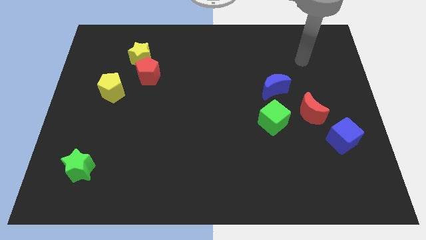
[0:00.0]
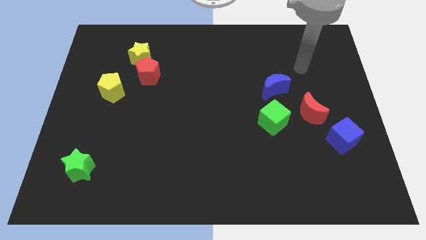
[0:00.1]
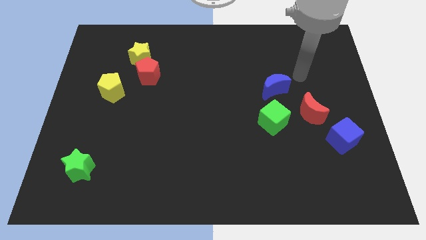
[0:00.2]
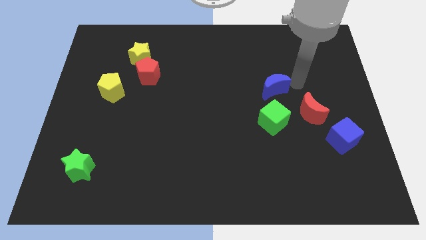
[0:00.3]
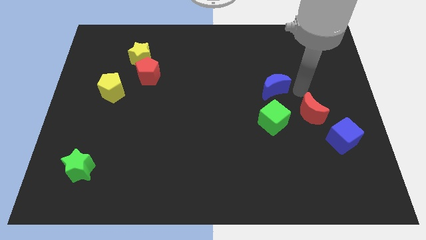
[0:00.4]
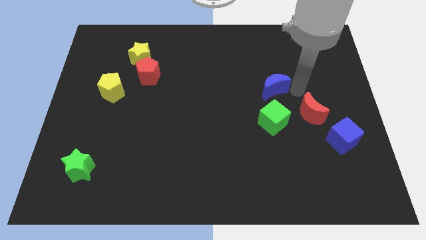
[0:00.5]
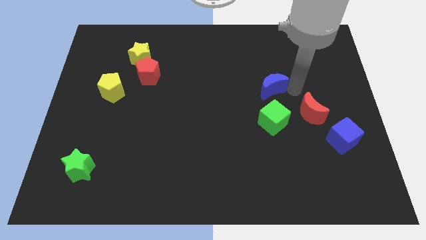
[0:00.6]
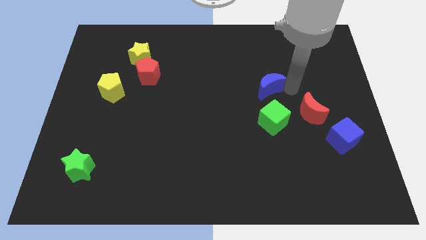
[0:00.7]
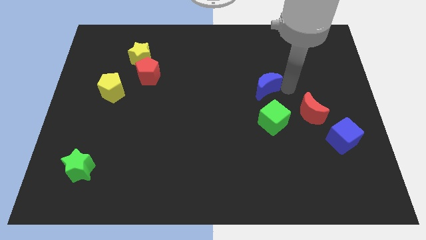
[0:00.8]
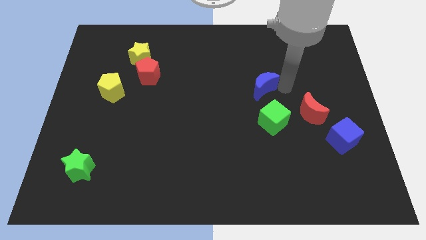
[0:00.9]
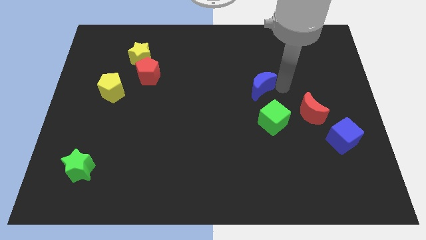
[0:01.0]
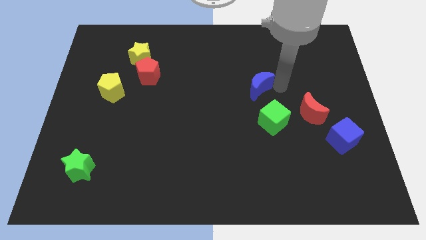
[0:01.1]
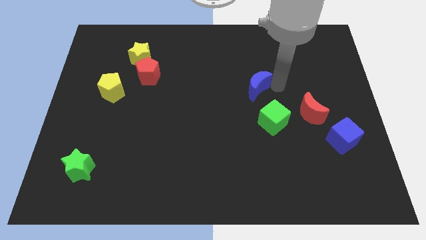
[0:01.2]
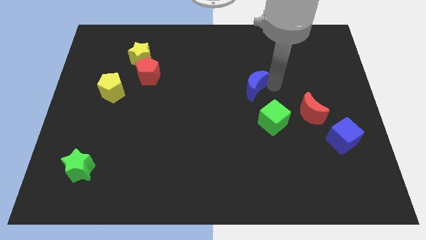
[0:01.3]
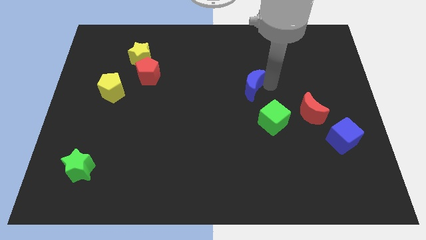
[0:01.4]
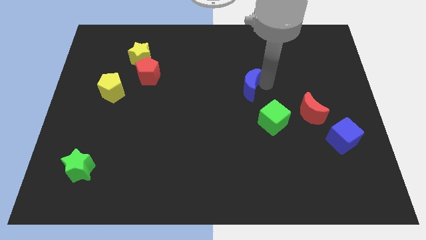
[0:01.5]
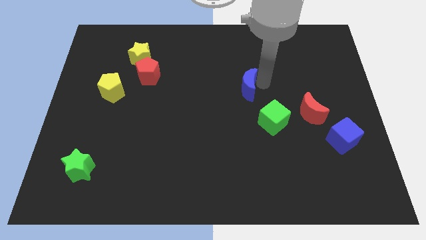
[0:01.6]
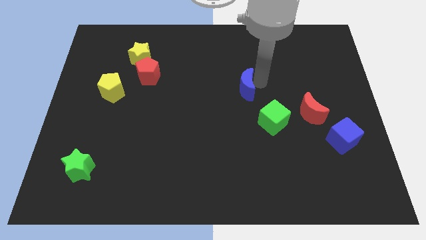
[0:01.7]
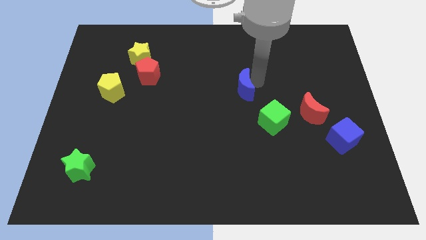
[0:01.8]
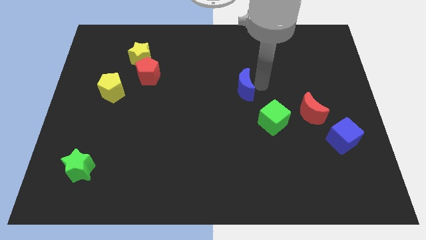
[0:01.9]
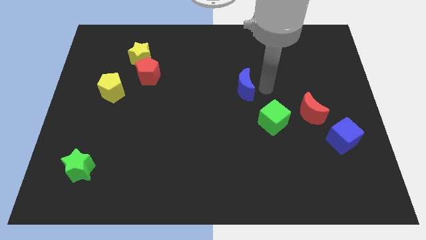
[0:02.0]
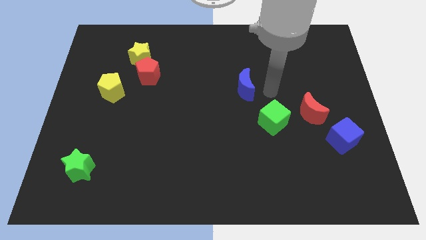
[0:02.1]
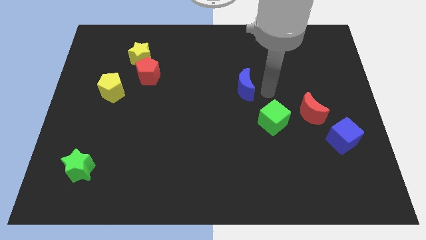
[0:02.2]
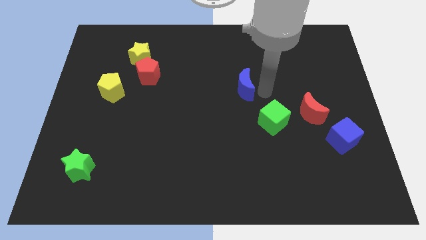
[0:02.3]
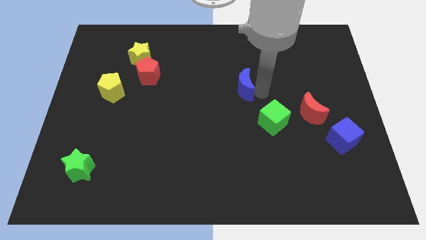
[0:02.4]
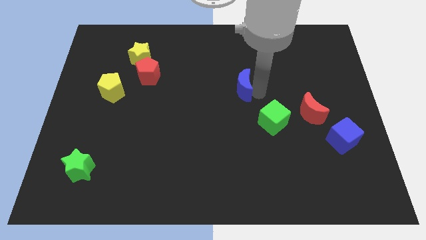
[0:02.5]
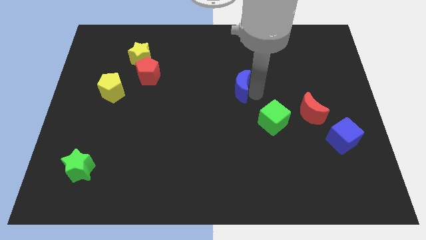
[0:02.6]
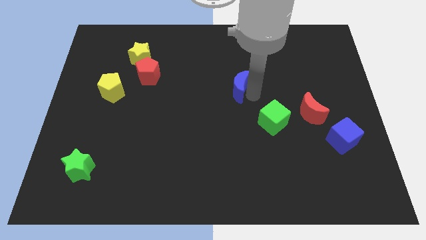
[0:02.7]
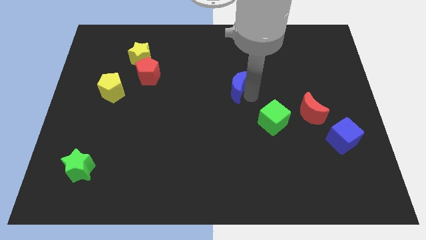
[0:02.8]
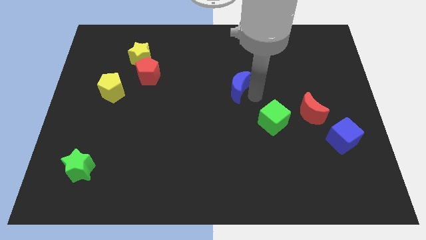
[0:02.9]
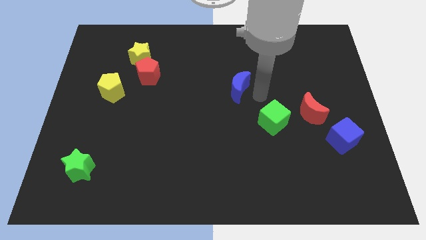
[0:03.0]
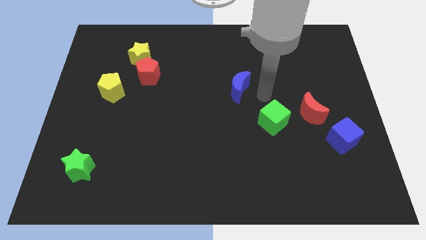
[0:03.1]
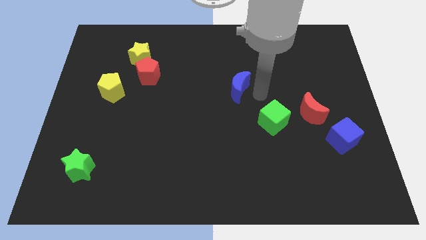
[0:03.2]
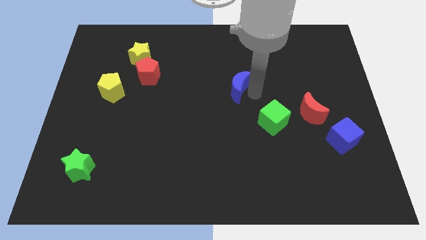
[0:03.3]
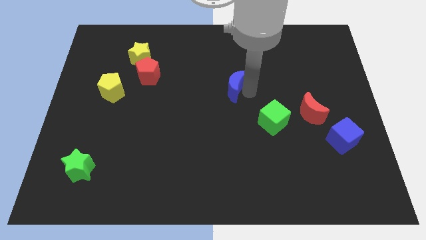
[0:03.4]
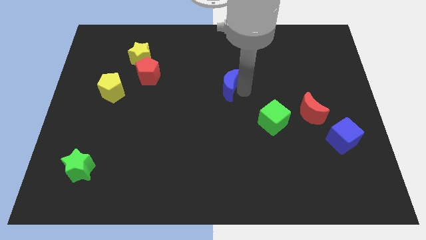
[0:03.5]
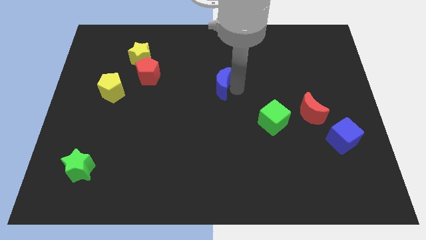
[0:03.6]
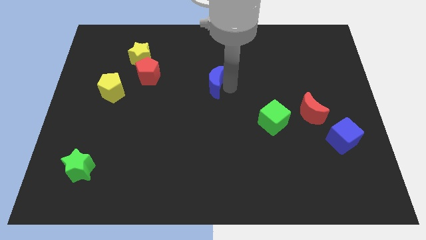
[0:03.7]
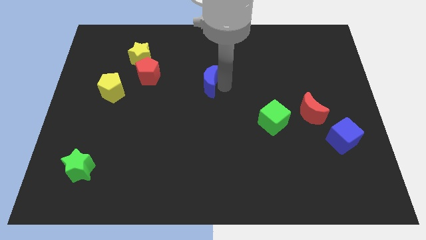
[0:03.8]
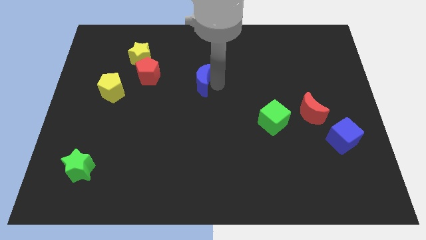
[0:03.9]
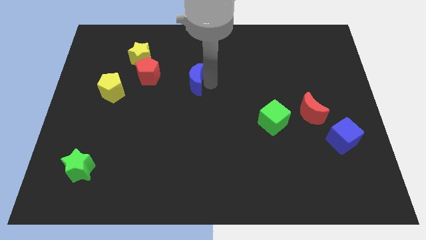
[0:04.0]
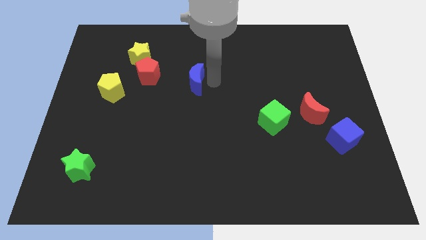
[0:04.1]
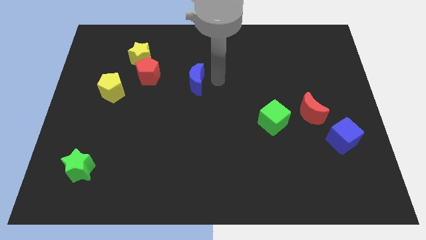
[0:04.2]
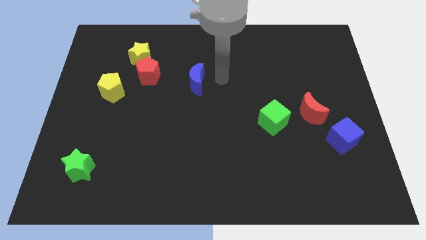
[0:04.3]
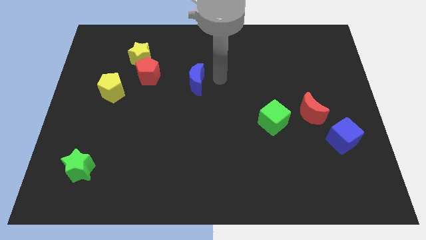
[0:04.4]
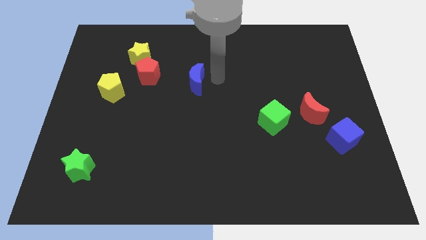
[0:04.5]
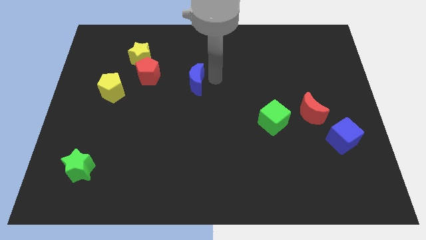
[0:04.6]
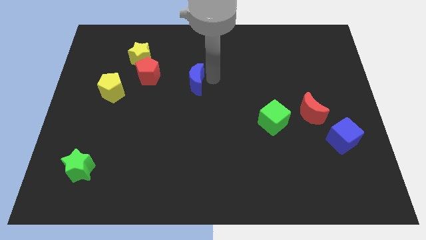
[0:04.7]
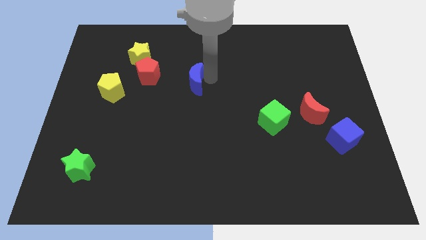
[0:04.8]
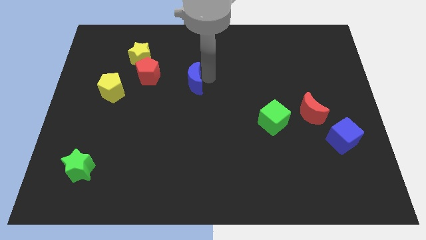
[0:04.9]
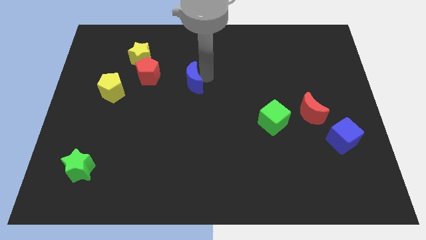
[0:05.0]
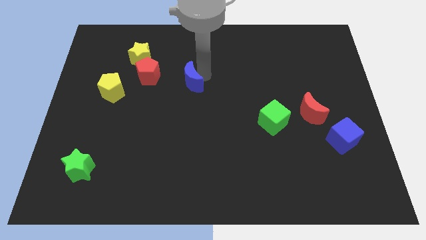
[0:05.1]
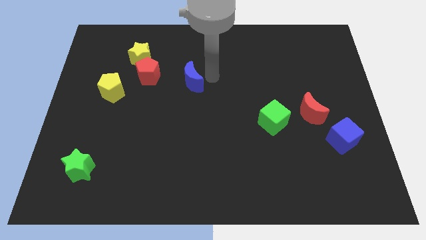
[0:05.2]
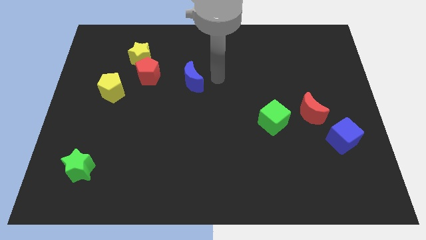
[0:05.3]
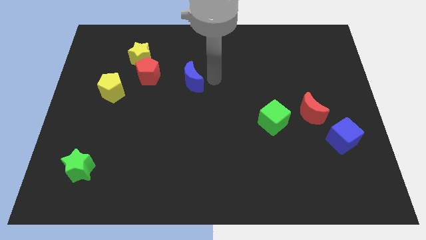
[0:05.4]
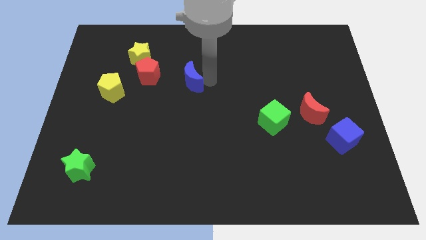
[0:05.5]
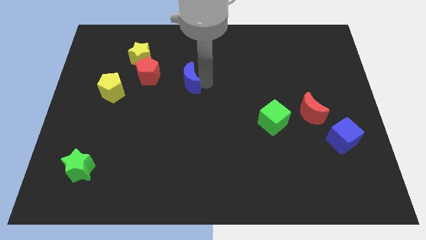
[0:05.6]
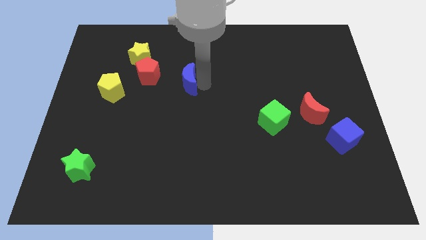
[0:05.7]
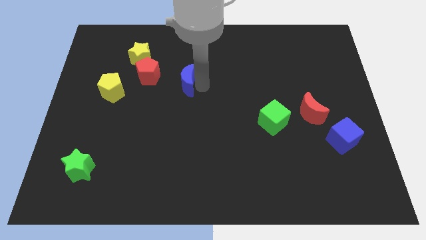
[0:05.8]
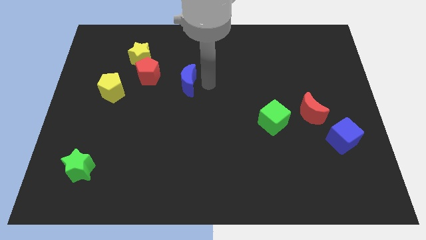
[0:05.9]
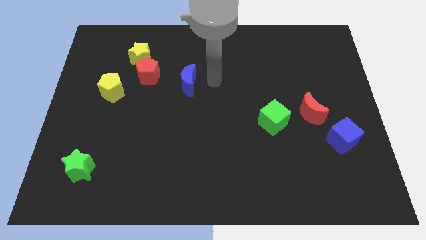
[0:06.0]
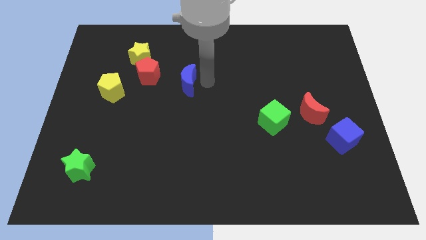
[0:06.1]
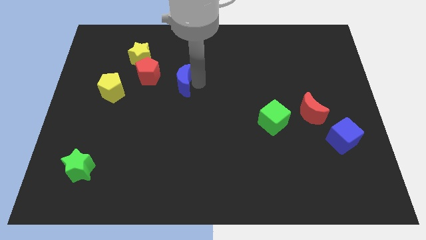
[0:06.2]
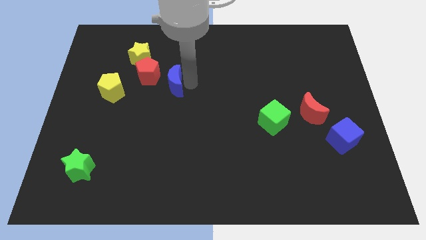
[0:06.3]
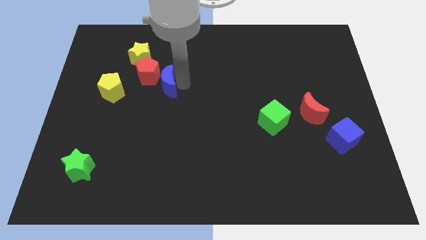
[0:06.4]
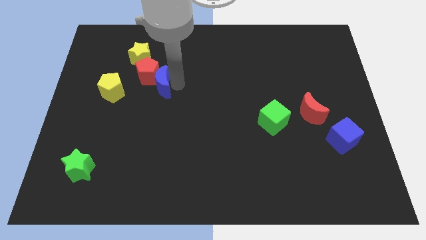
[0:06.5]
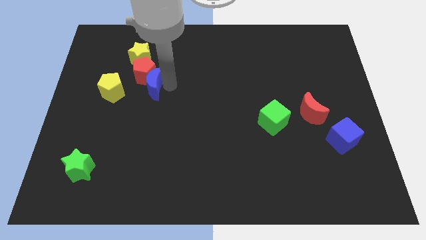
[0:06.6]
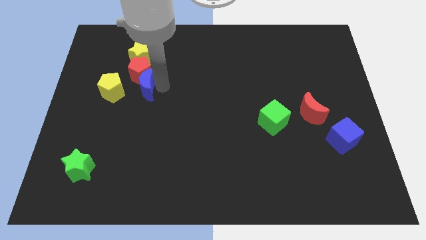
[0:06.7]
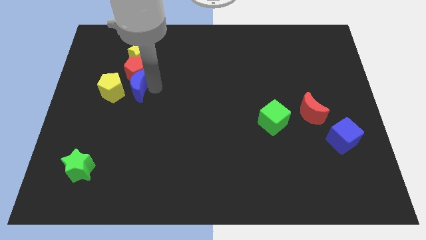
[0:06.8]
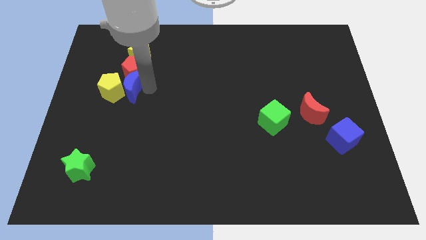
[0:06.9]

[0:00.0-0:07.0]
move the blue moon next to the yellow pentagon

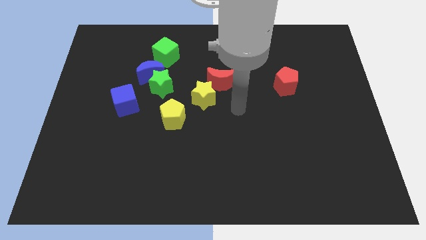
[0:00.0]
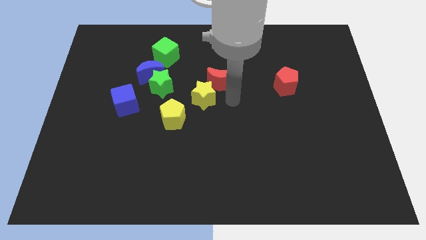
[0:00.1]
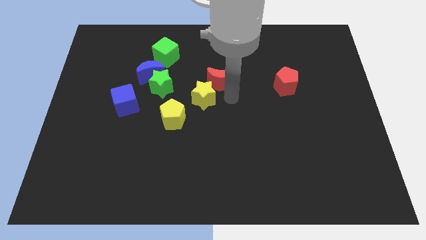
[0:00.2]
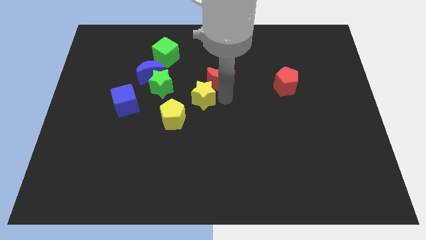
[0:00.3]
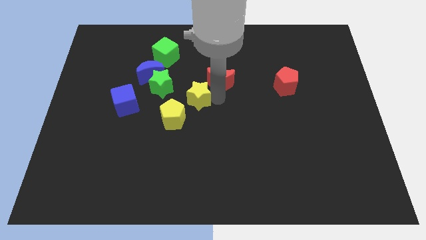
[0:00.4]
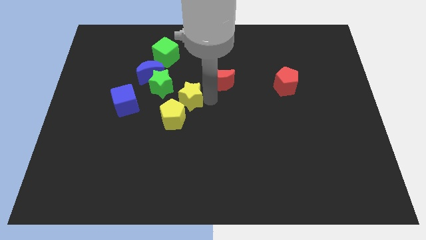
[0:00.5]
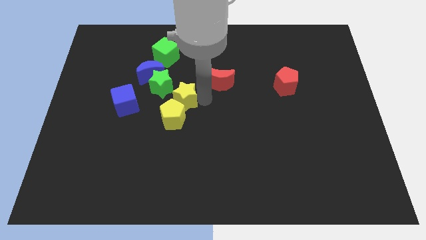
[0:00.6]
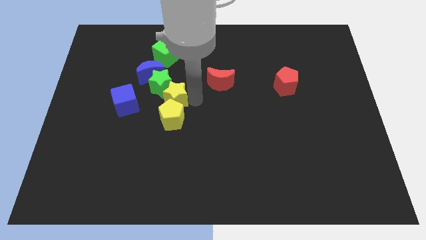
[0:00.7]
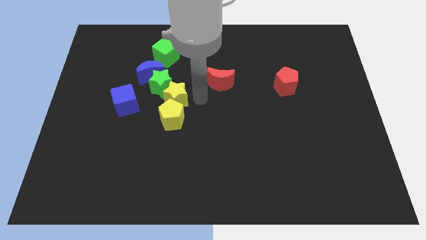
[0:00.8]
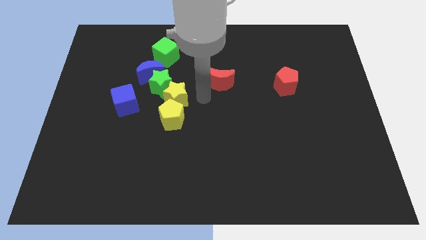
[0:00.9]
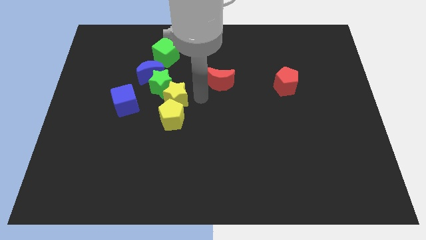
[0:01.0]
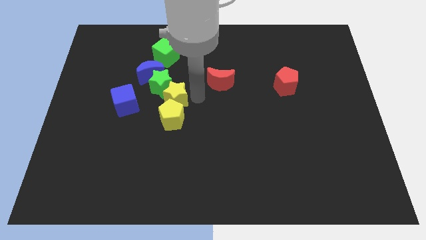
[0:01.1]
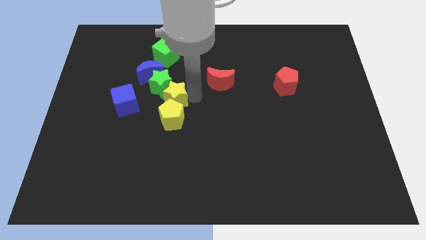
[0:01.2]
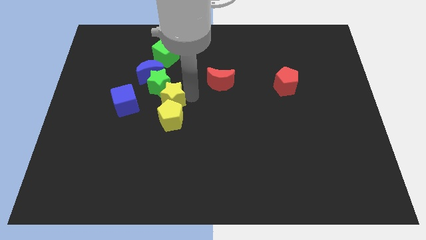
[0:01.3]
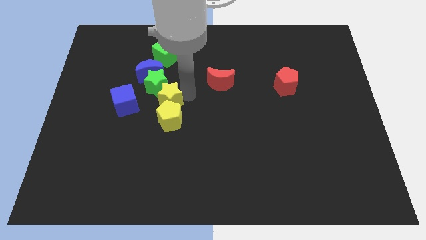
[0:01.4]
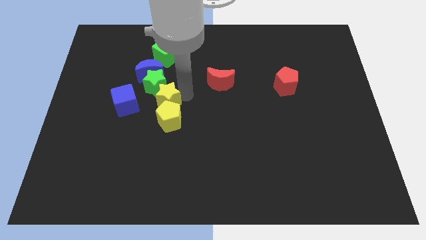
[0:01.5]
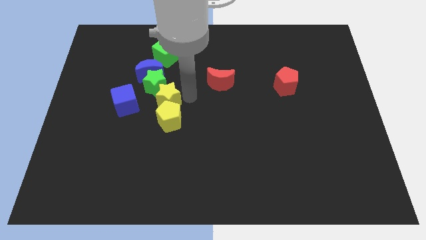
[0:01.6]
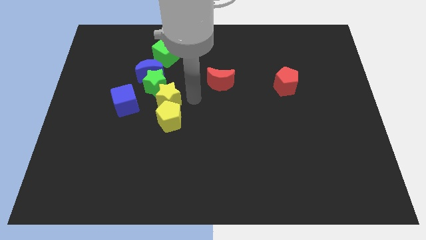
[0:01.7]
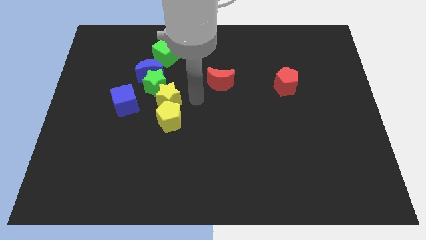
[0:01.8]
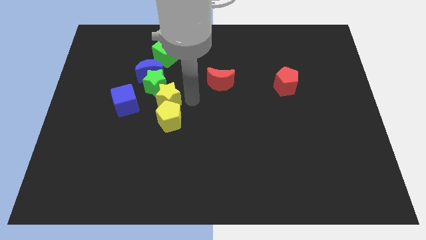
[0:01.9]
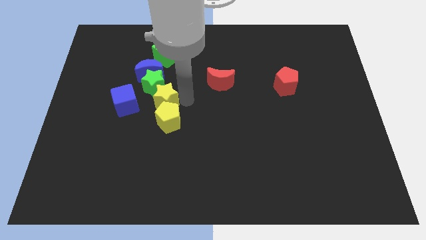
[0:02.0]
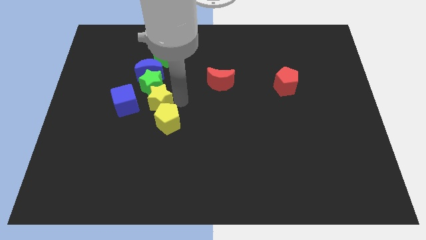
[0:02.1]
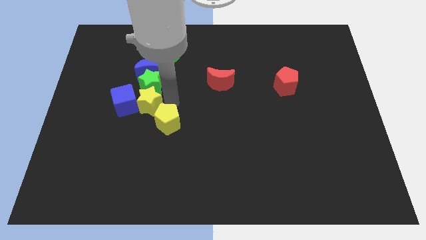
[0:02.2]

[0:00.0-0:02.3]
push the yellow star close to the blue cube
